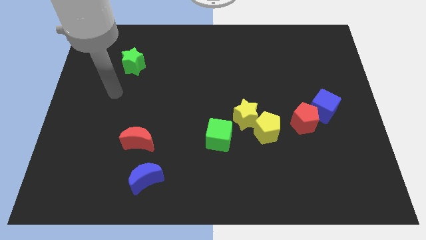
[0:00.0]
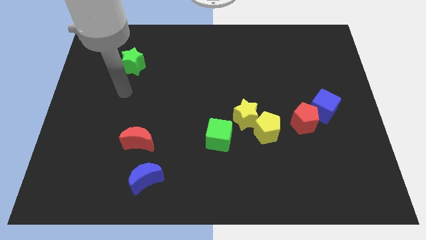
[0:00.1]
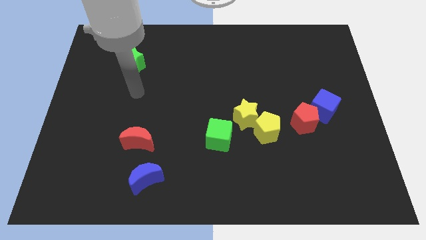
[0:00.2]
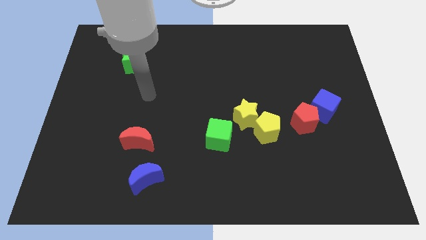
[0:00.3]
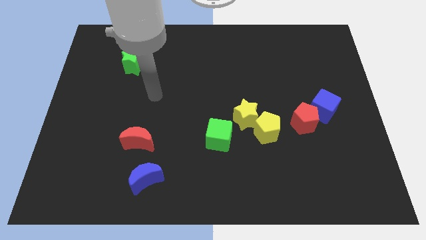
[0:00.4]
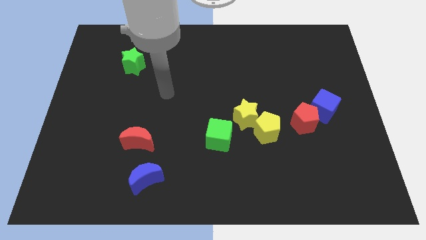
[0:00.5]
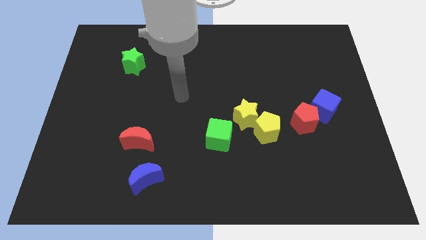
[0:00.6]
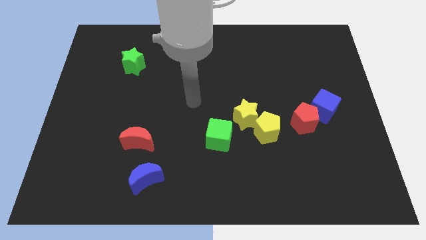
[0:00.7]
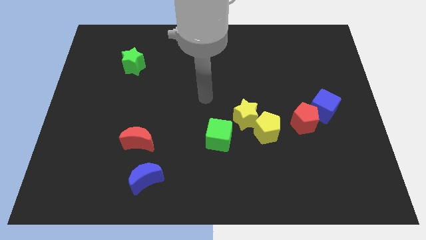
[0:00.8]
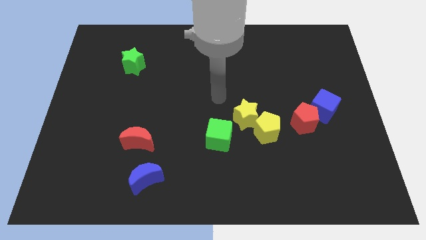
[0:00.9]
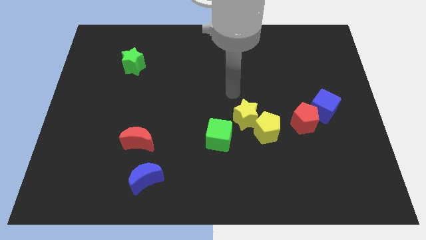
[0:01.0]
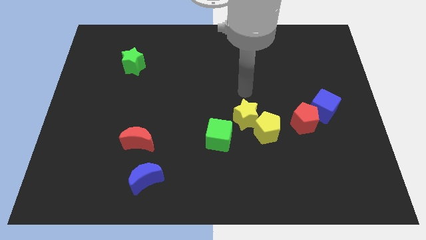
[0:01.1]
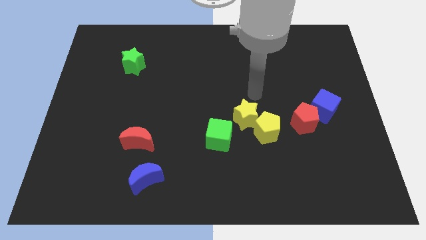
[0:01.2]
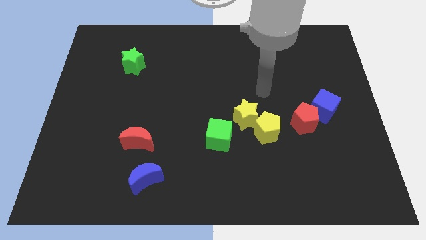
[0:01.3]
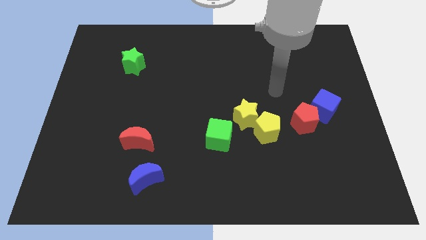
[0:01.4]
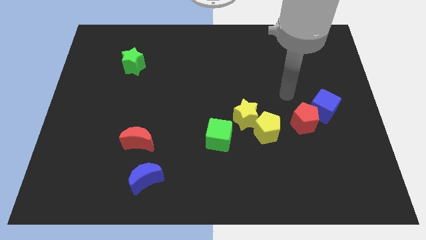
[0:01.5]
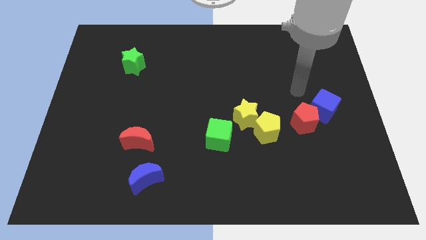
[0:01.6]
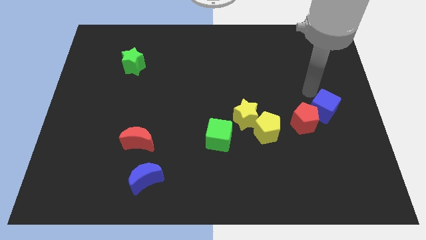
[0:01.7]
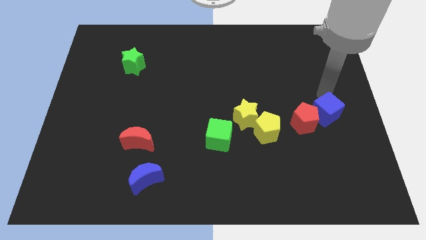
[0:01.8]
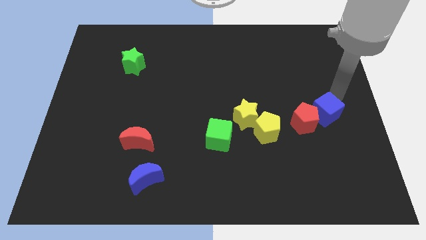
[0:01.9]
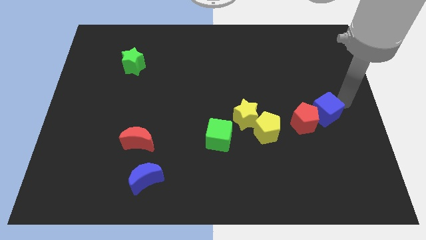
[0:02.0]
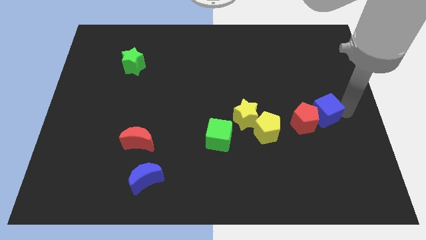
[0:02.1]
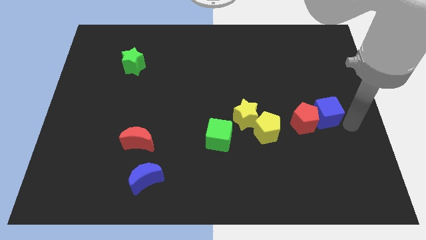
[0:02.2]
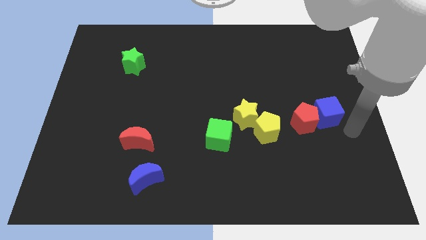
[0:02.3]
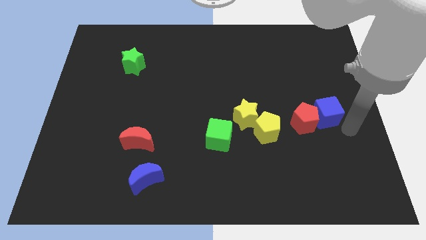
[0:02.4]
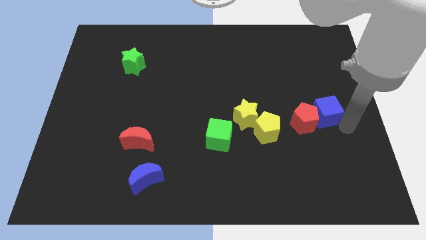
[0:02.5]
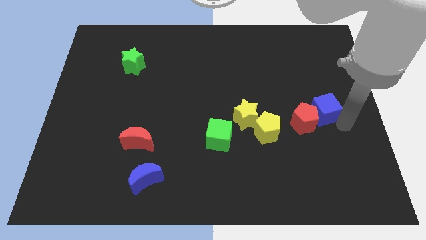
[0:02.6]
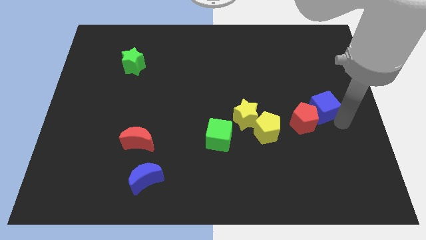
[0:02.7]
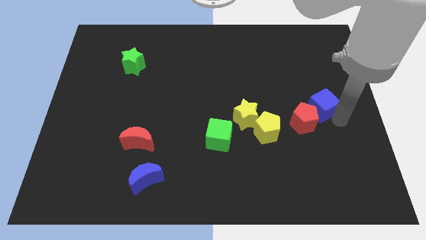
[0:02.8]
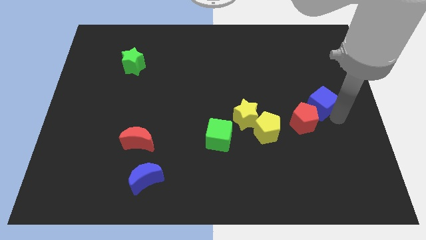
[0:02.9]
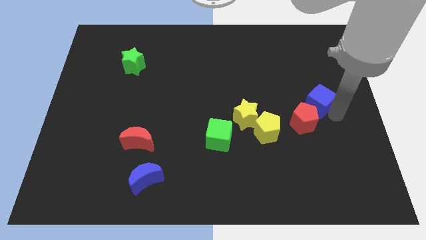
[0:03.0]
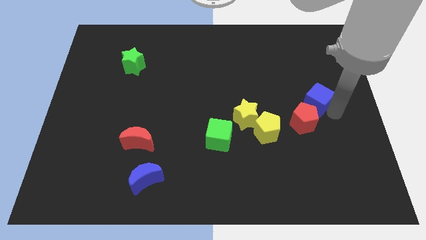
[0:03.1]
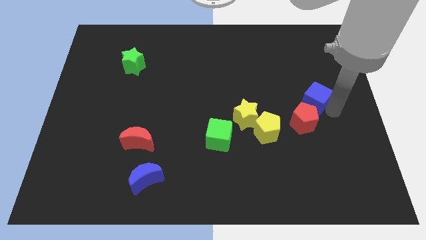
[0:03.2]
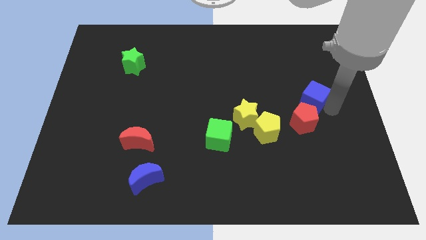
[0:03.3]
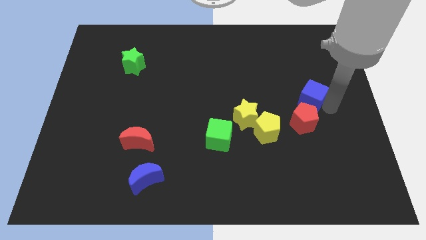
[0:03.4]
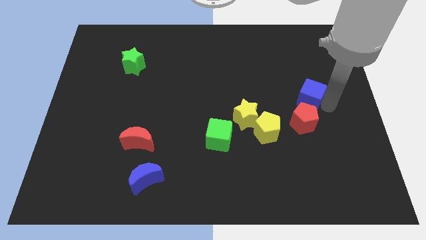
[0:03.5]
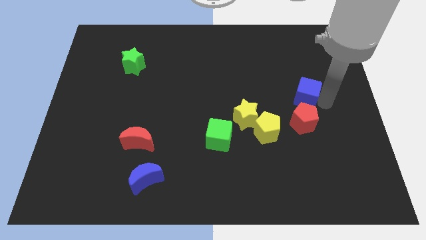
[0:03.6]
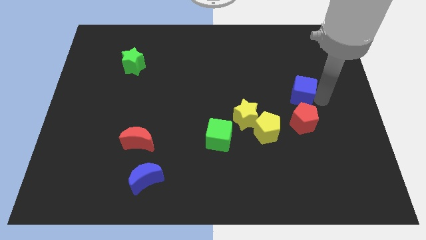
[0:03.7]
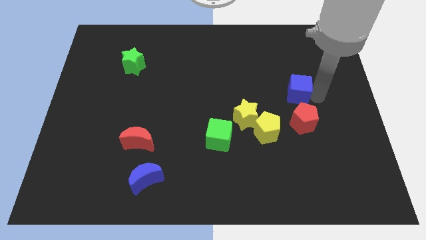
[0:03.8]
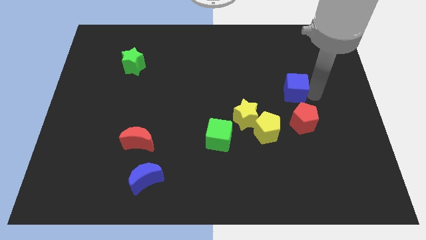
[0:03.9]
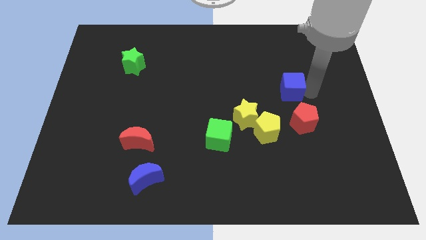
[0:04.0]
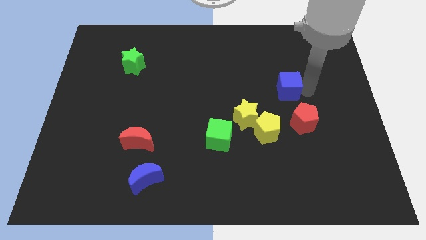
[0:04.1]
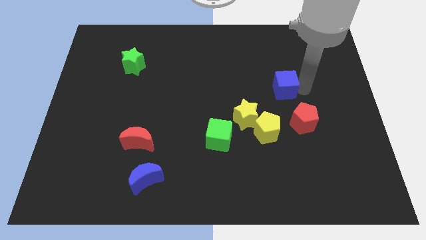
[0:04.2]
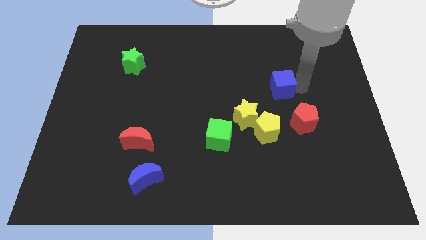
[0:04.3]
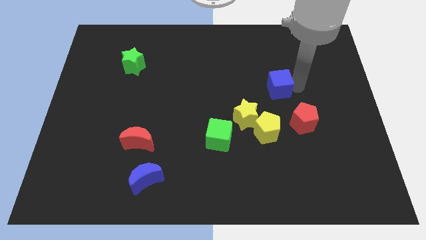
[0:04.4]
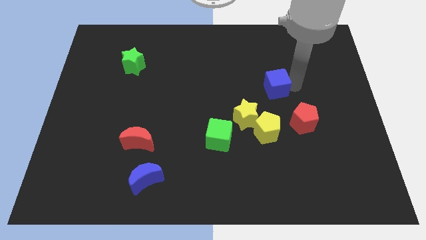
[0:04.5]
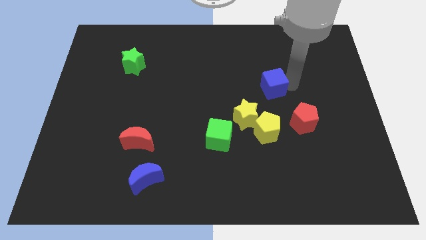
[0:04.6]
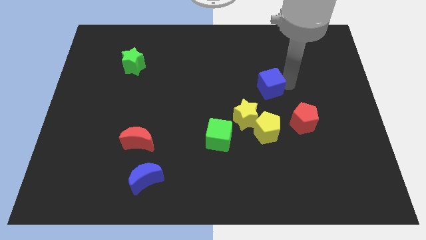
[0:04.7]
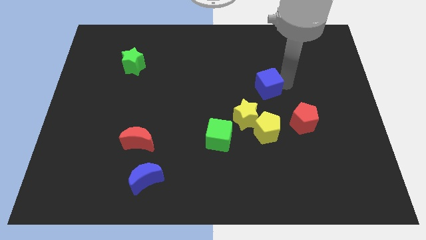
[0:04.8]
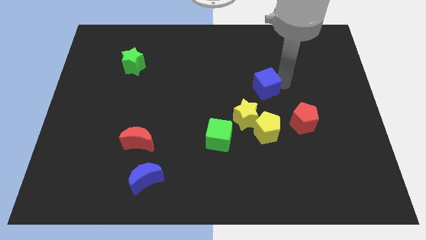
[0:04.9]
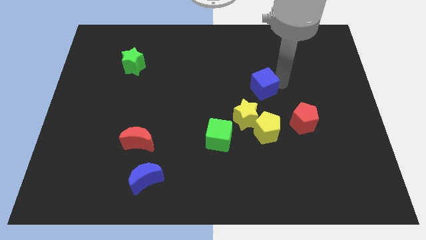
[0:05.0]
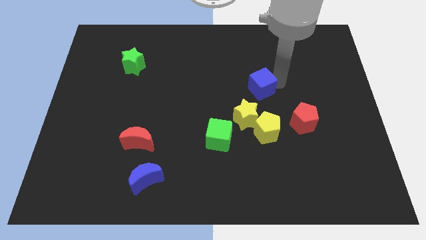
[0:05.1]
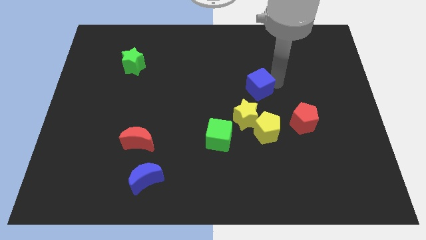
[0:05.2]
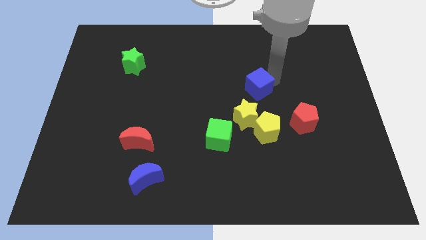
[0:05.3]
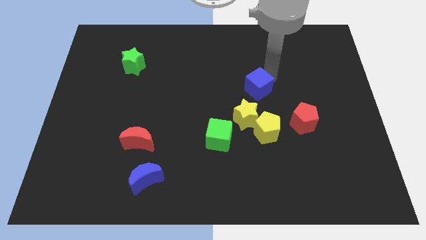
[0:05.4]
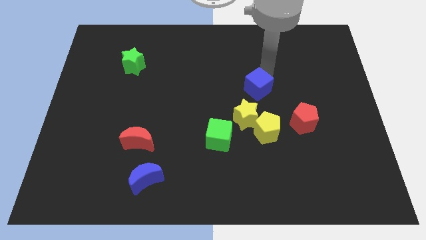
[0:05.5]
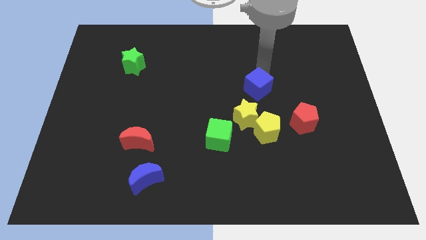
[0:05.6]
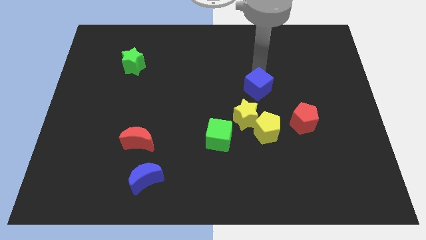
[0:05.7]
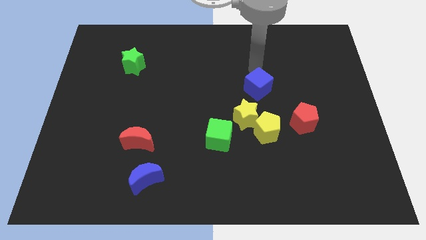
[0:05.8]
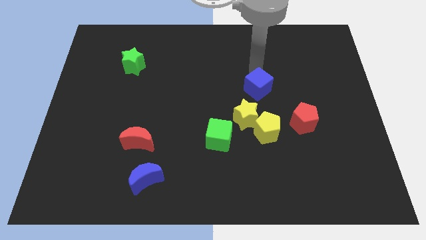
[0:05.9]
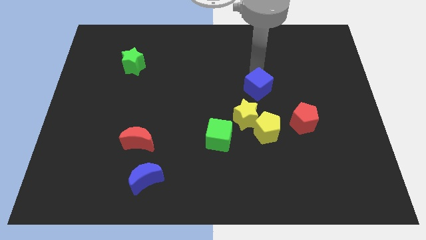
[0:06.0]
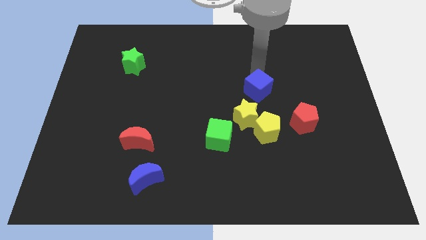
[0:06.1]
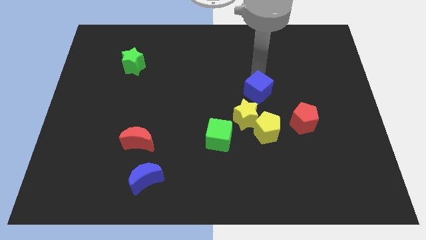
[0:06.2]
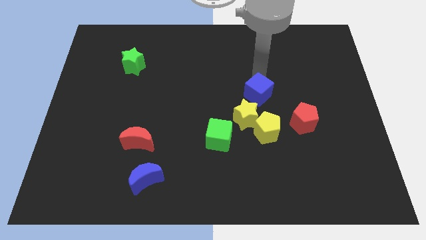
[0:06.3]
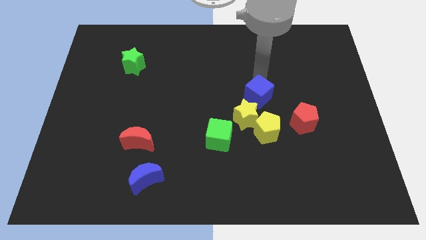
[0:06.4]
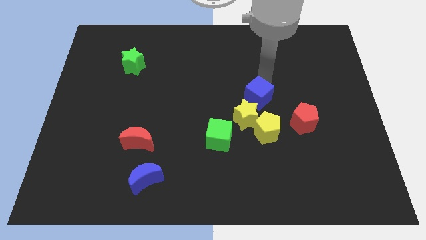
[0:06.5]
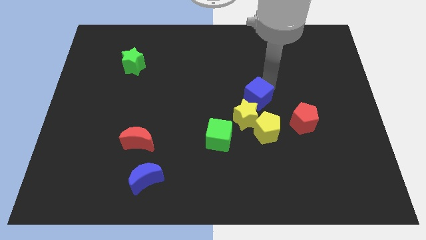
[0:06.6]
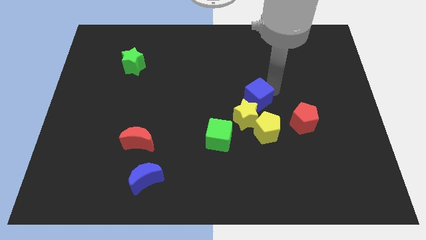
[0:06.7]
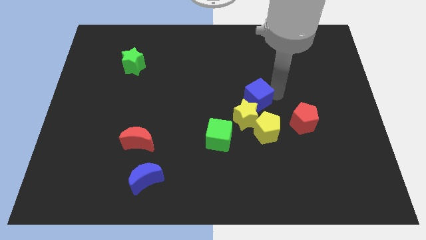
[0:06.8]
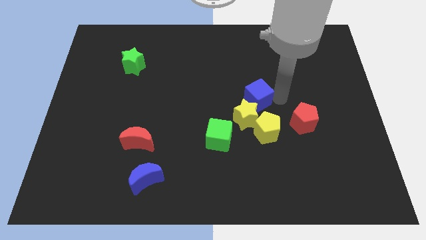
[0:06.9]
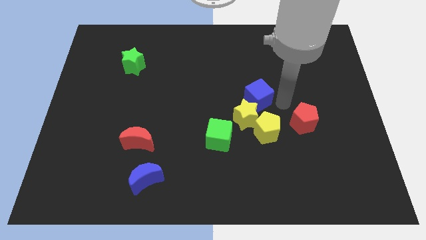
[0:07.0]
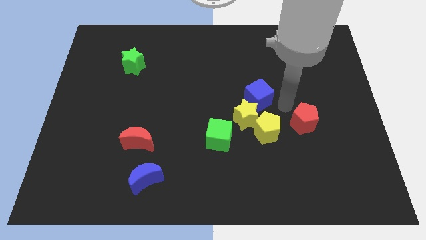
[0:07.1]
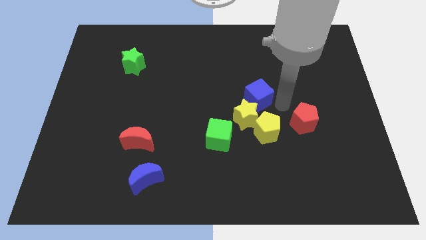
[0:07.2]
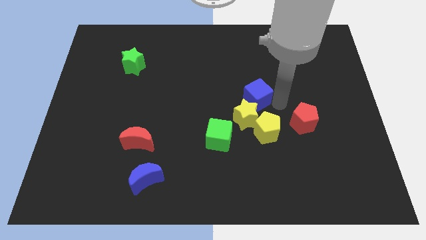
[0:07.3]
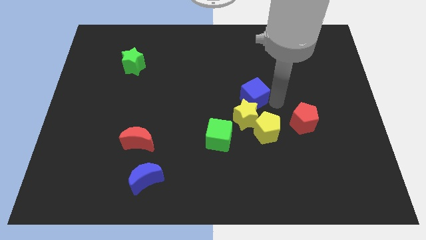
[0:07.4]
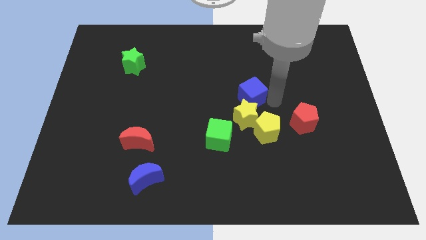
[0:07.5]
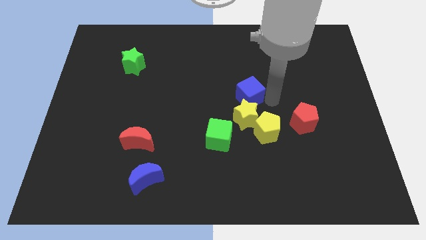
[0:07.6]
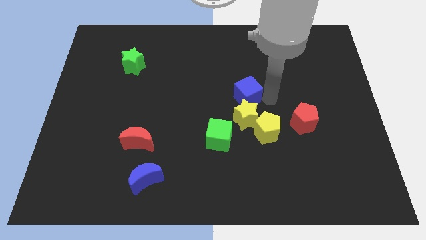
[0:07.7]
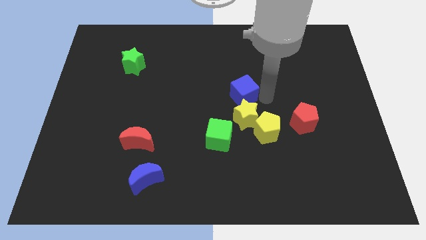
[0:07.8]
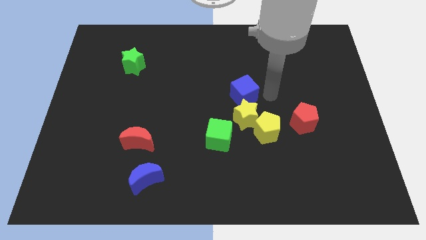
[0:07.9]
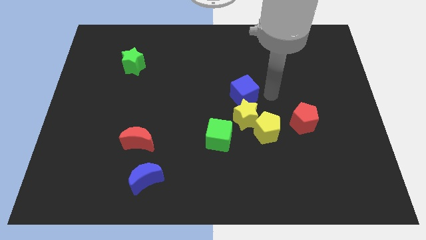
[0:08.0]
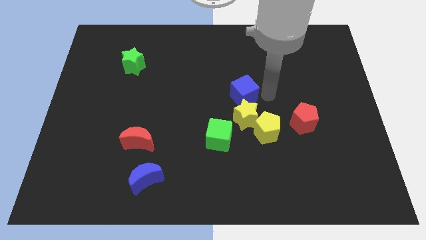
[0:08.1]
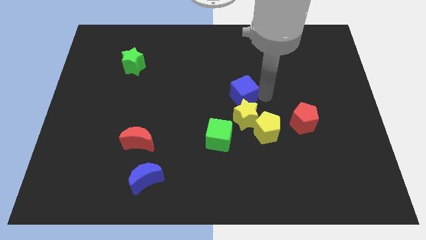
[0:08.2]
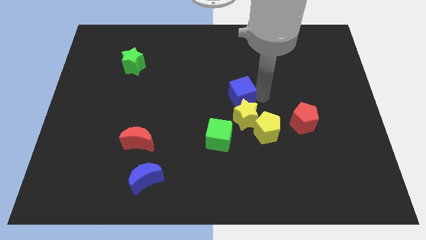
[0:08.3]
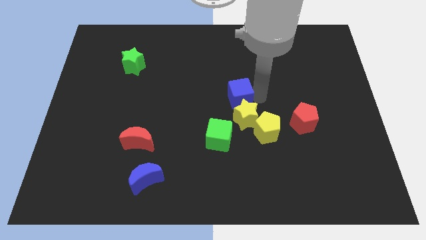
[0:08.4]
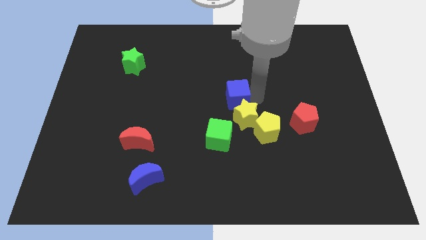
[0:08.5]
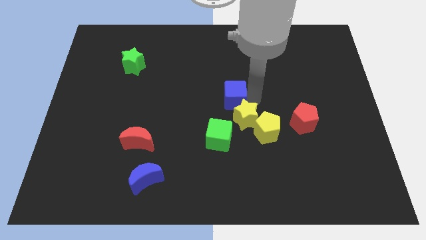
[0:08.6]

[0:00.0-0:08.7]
move the blue cube to the left
